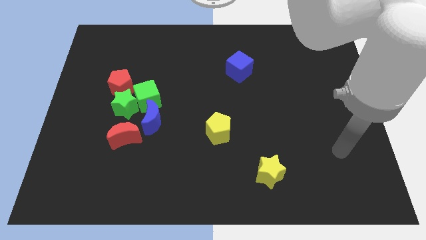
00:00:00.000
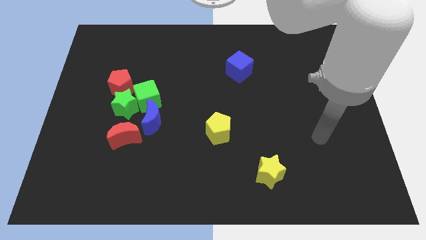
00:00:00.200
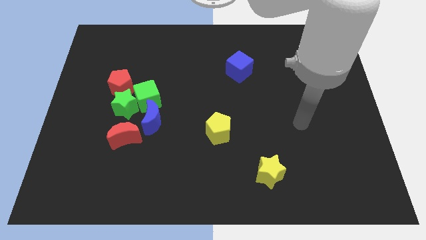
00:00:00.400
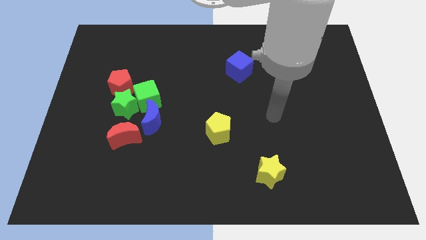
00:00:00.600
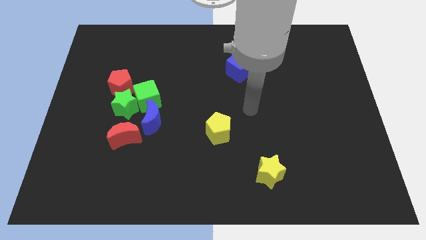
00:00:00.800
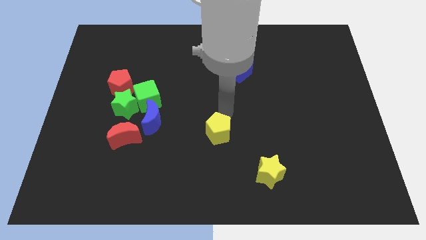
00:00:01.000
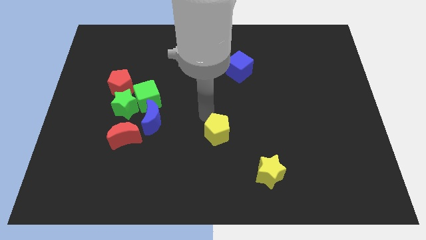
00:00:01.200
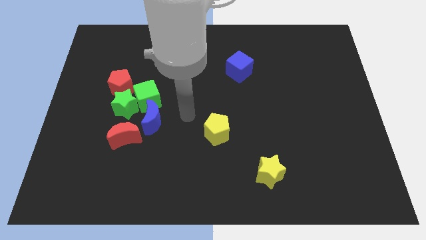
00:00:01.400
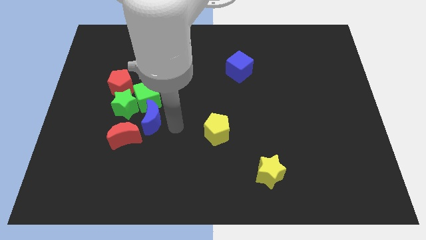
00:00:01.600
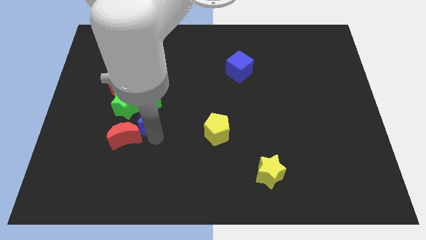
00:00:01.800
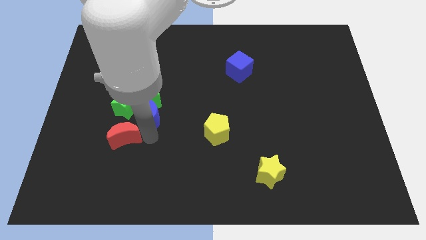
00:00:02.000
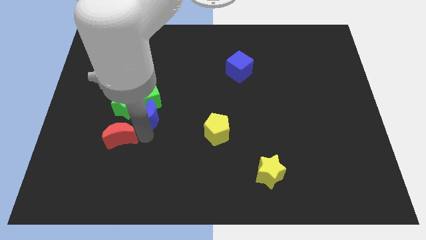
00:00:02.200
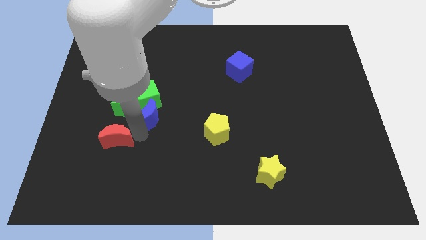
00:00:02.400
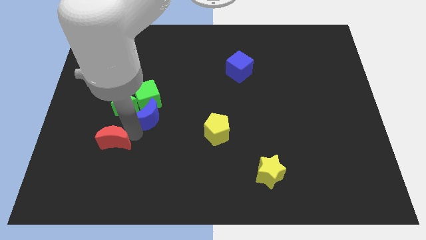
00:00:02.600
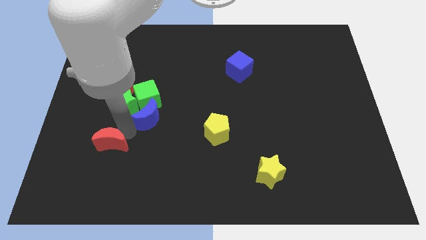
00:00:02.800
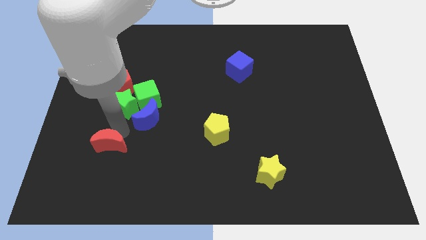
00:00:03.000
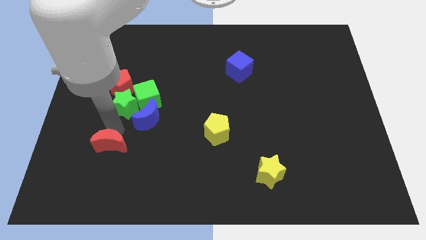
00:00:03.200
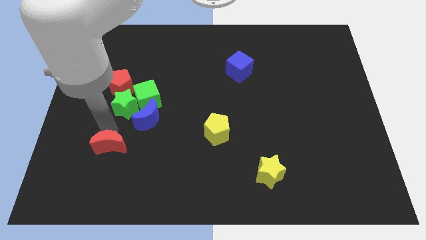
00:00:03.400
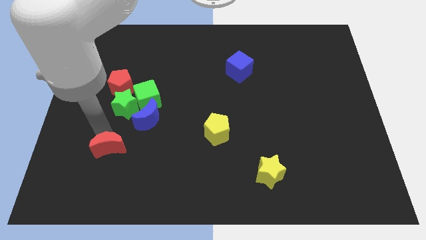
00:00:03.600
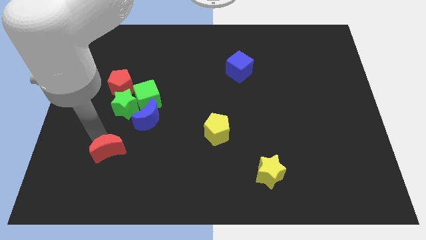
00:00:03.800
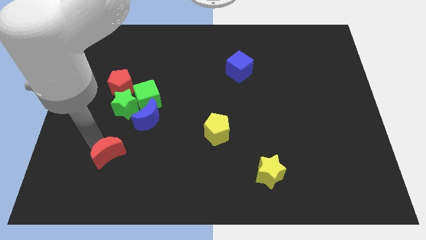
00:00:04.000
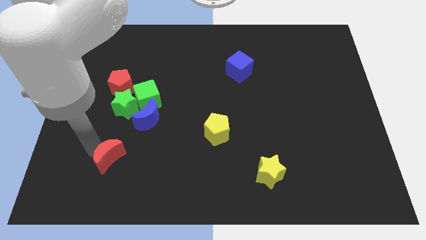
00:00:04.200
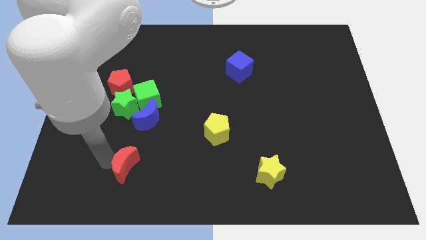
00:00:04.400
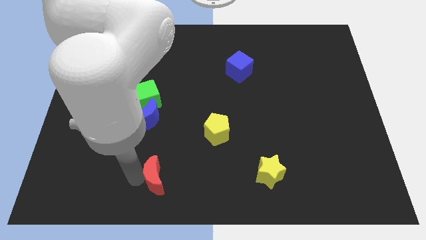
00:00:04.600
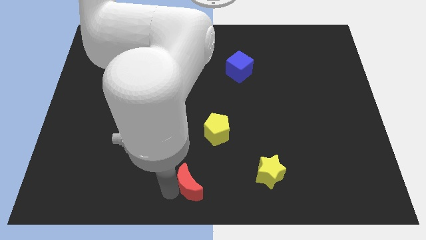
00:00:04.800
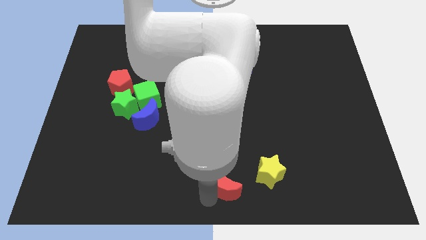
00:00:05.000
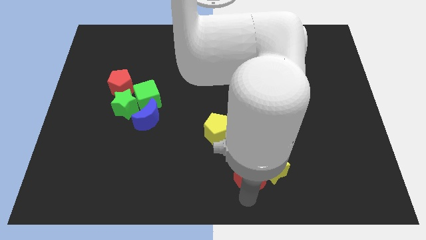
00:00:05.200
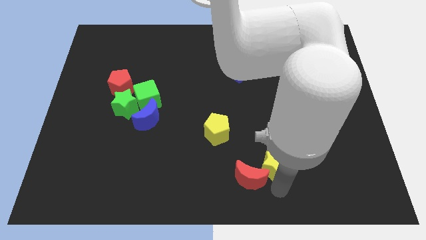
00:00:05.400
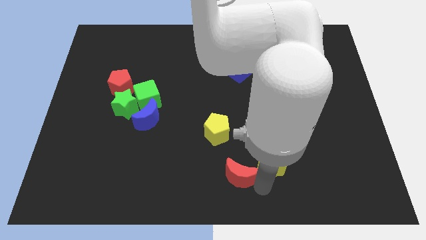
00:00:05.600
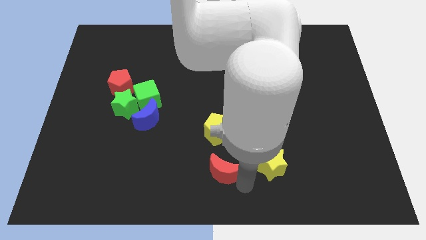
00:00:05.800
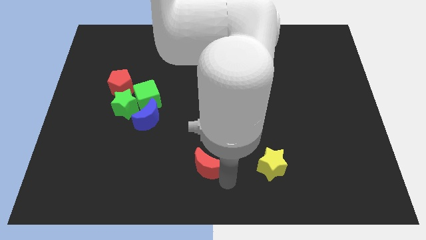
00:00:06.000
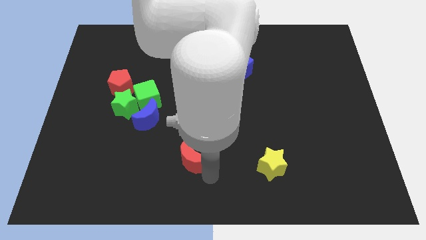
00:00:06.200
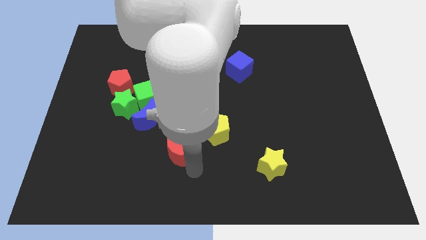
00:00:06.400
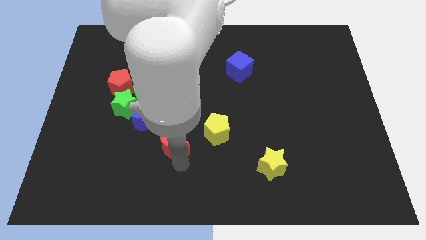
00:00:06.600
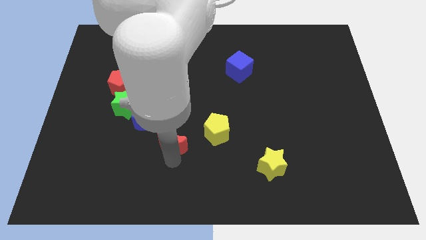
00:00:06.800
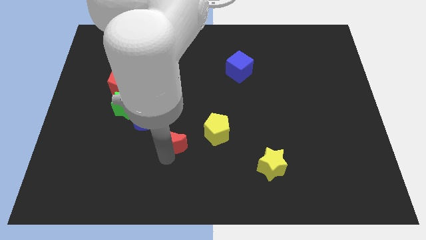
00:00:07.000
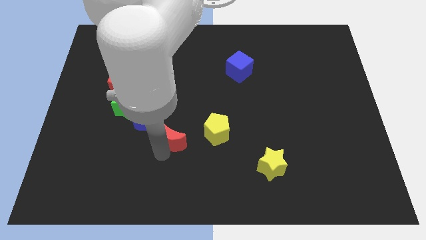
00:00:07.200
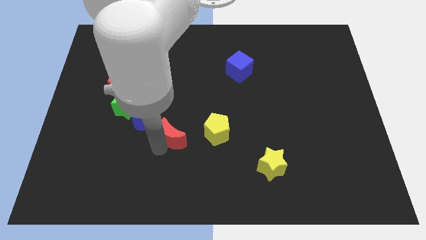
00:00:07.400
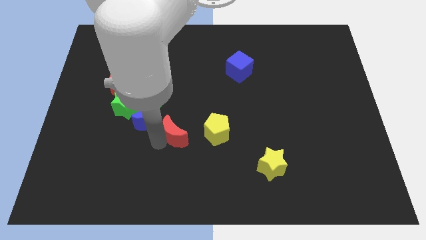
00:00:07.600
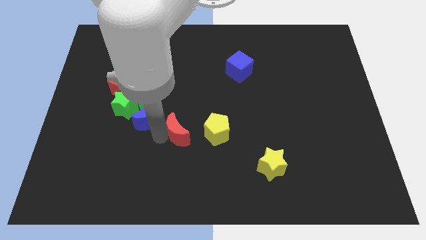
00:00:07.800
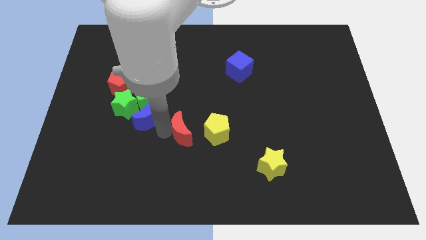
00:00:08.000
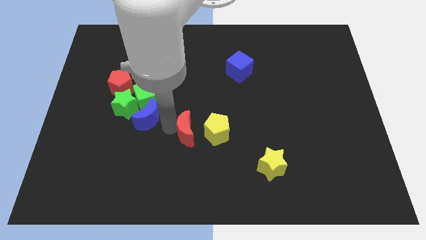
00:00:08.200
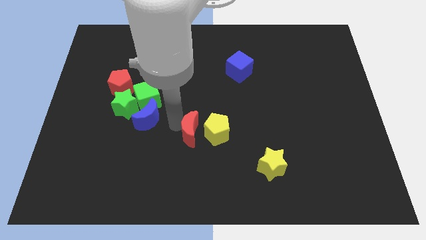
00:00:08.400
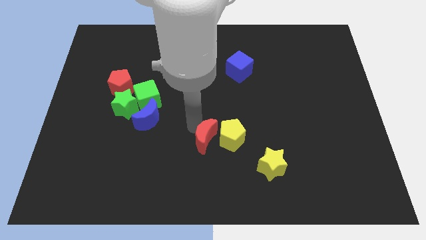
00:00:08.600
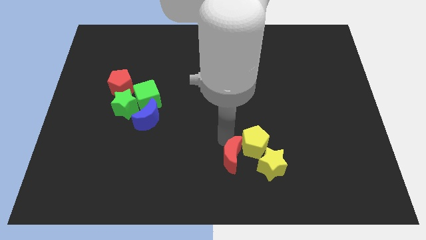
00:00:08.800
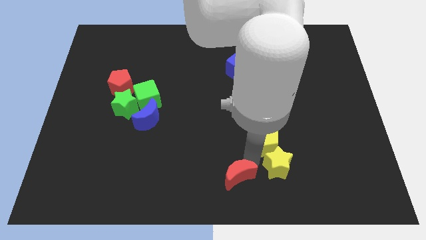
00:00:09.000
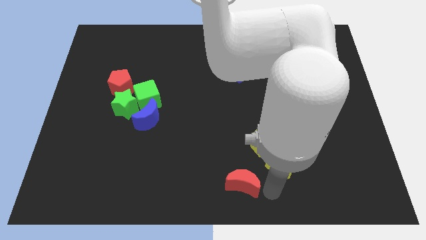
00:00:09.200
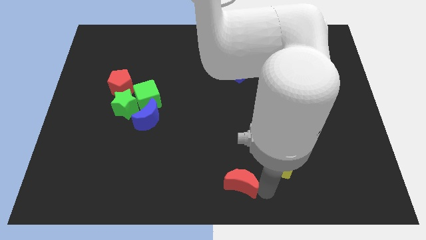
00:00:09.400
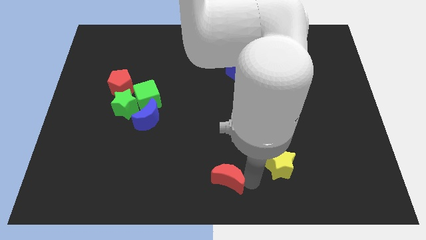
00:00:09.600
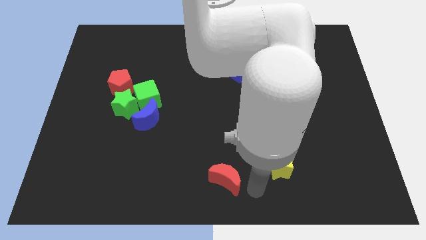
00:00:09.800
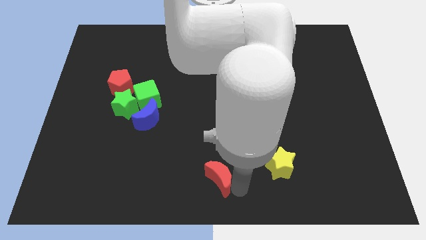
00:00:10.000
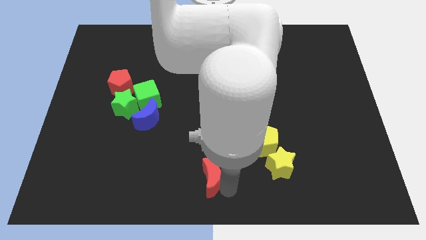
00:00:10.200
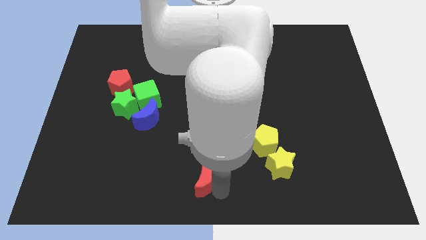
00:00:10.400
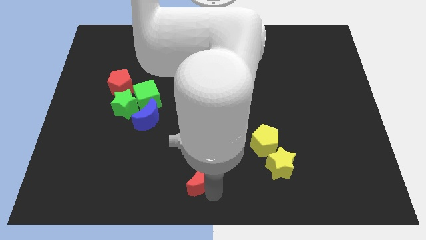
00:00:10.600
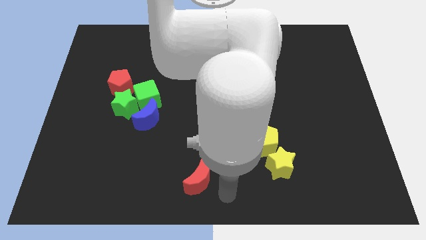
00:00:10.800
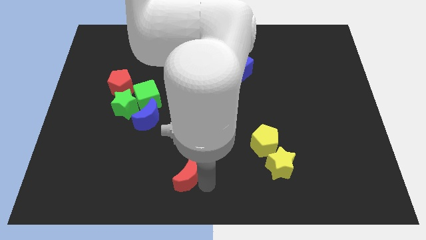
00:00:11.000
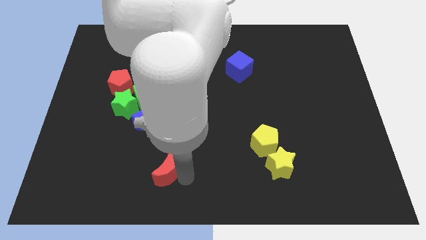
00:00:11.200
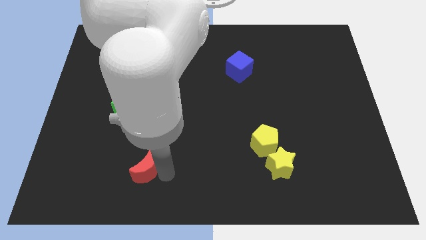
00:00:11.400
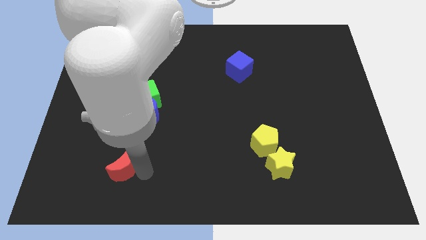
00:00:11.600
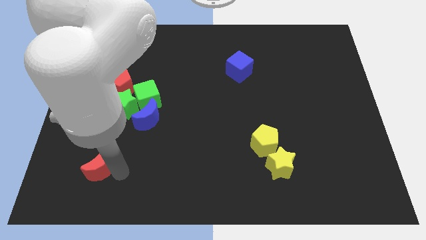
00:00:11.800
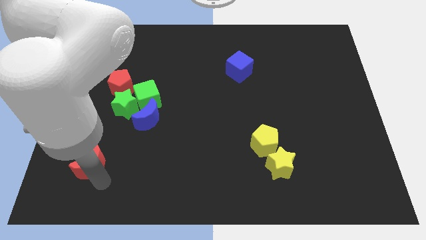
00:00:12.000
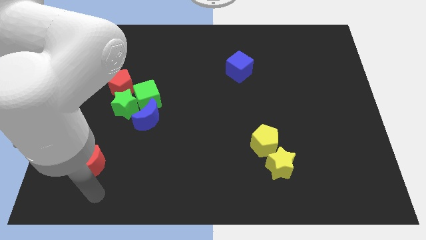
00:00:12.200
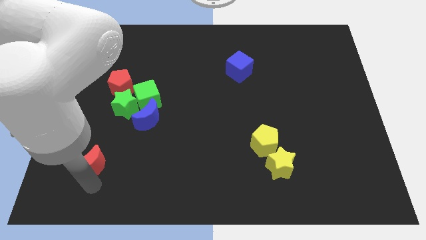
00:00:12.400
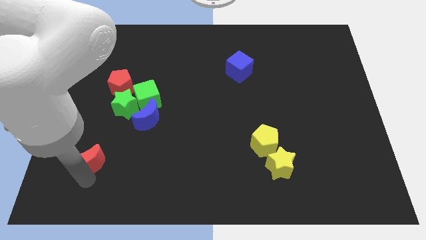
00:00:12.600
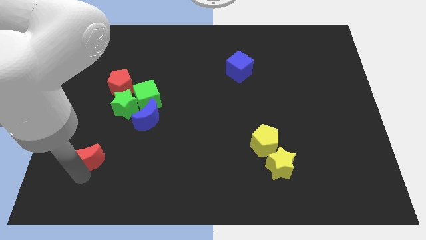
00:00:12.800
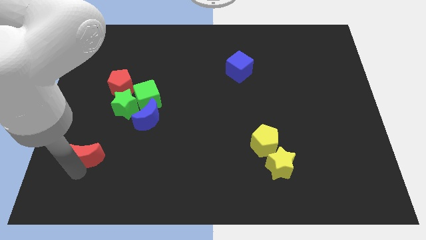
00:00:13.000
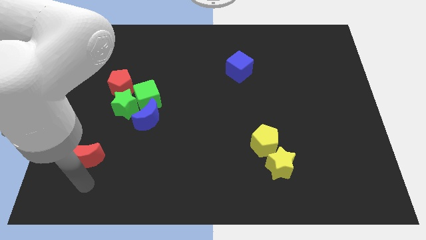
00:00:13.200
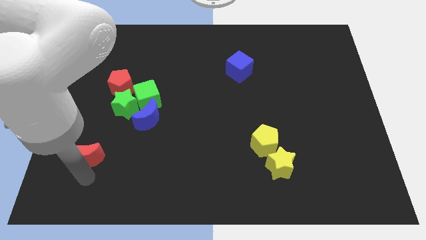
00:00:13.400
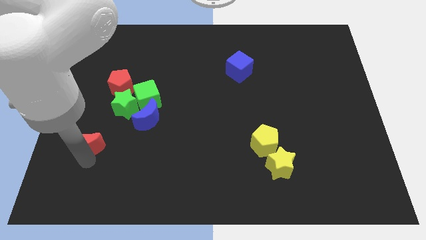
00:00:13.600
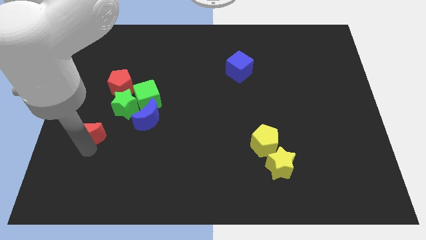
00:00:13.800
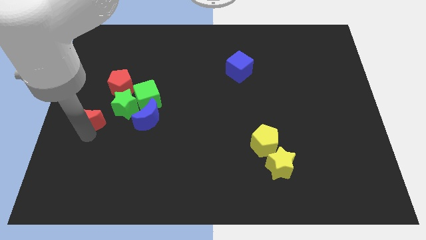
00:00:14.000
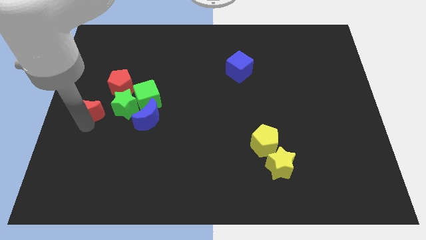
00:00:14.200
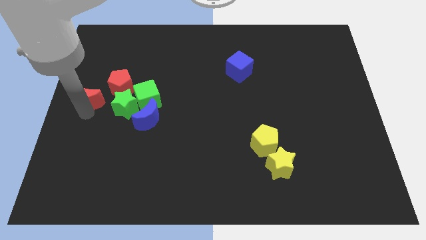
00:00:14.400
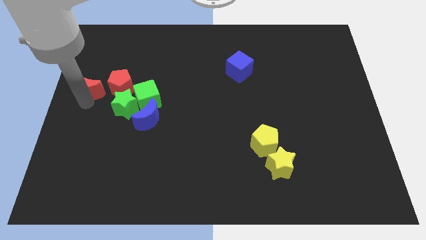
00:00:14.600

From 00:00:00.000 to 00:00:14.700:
slightly move the red moon upwards

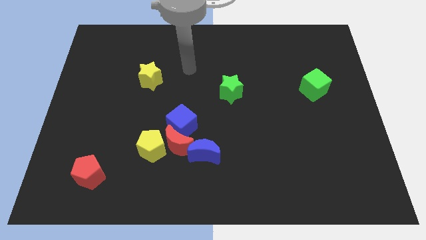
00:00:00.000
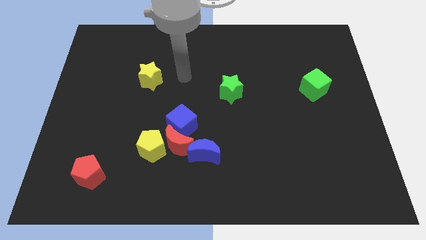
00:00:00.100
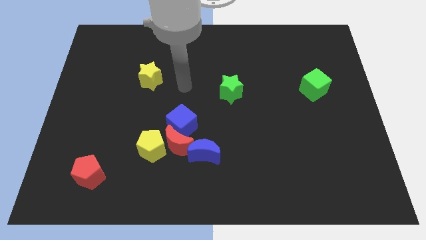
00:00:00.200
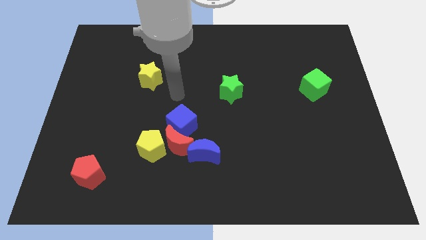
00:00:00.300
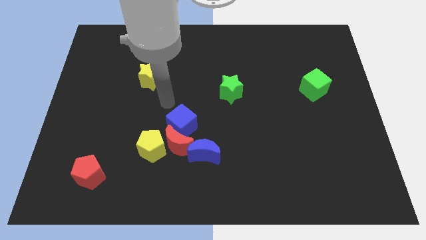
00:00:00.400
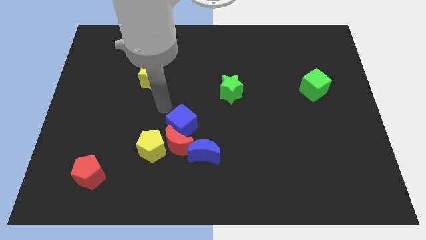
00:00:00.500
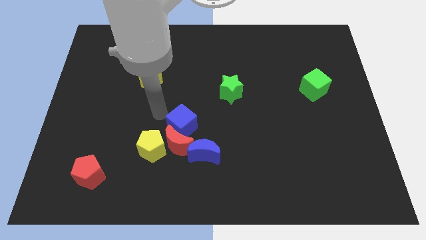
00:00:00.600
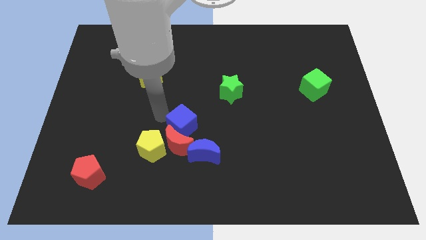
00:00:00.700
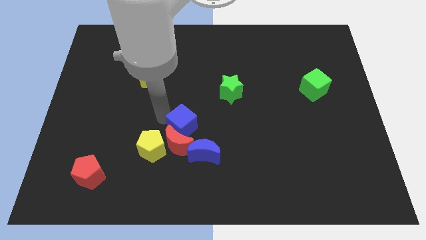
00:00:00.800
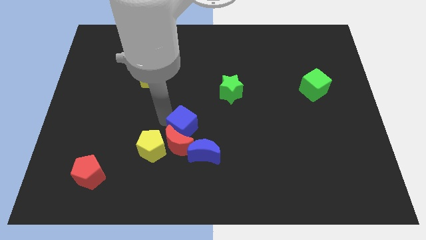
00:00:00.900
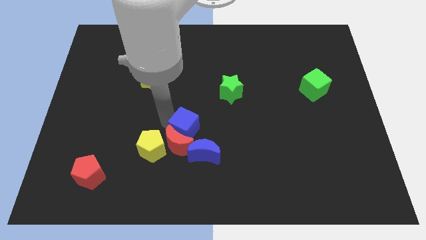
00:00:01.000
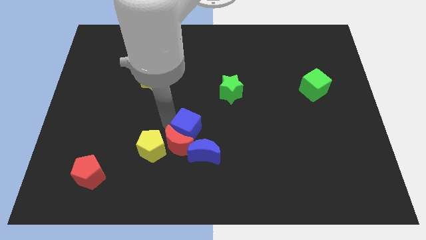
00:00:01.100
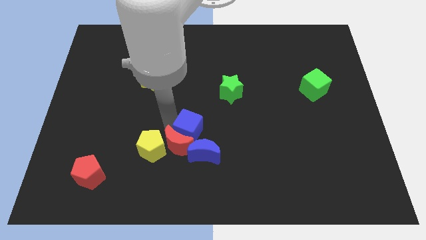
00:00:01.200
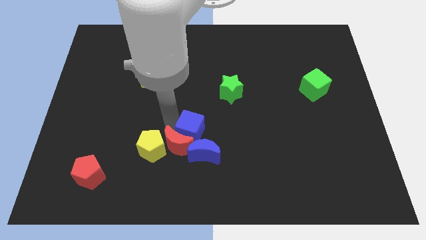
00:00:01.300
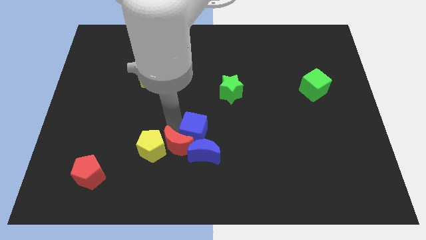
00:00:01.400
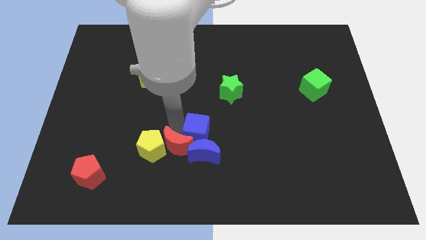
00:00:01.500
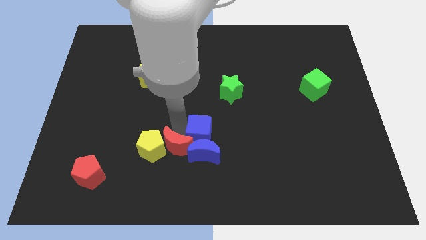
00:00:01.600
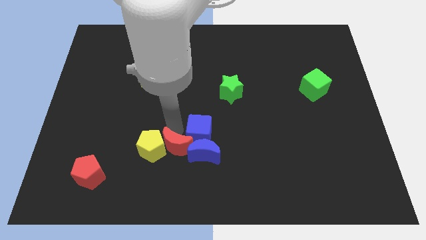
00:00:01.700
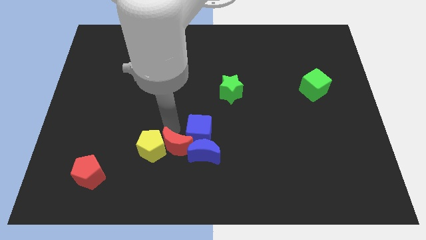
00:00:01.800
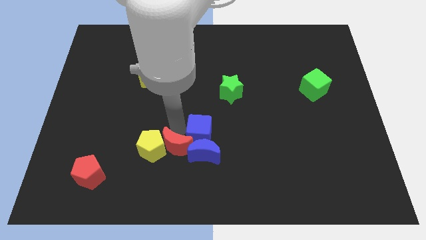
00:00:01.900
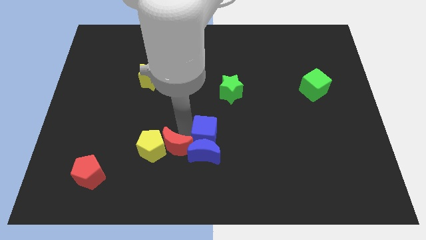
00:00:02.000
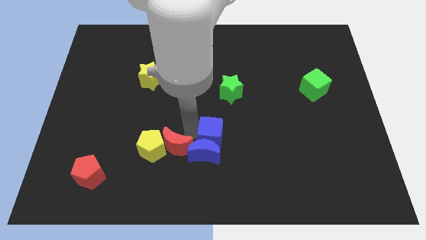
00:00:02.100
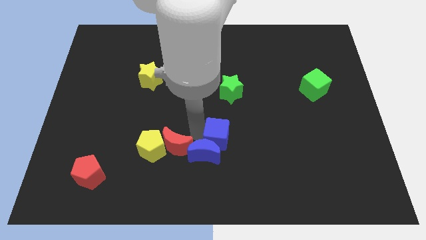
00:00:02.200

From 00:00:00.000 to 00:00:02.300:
slide the blue cube a little bit diagonally down and to the right
